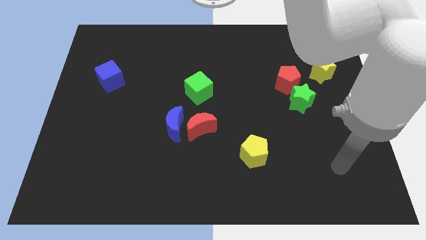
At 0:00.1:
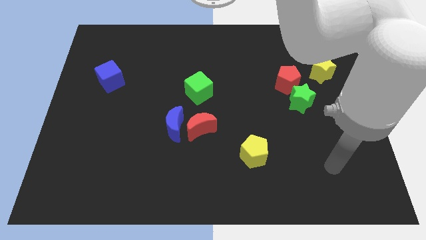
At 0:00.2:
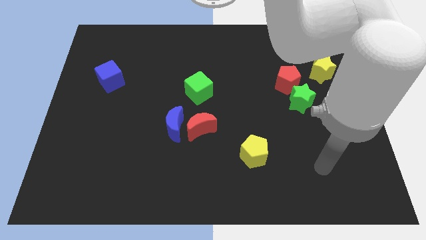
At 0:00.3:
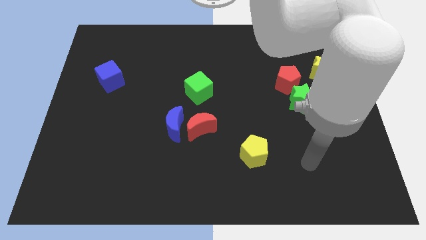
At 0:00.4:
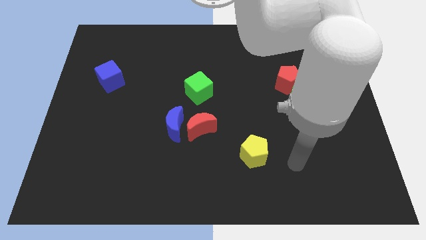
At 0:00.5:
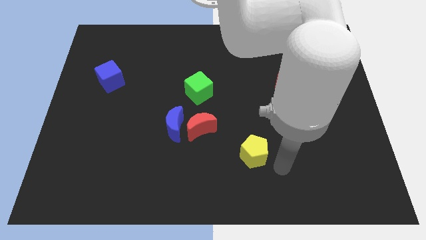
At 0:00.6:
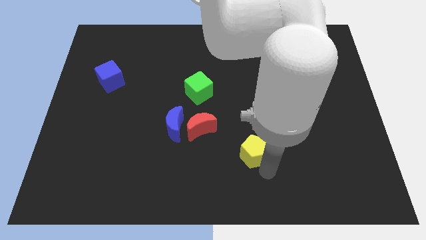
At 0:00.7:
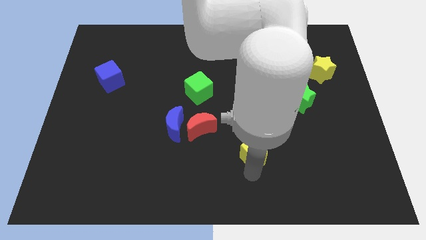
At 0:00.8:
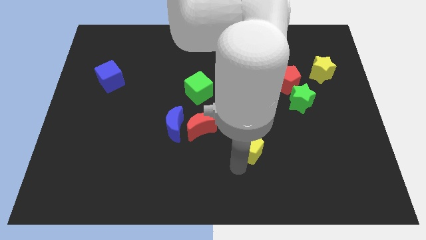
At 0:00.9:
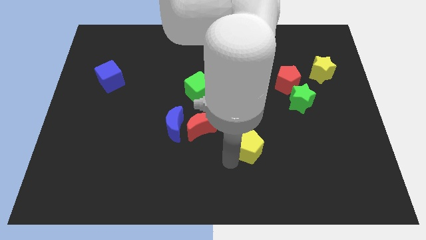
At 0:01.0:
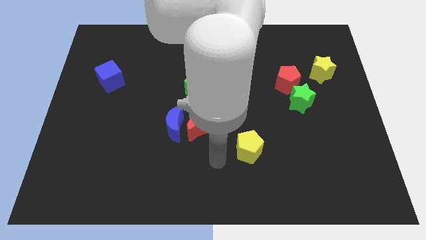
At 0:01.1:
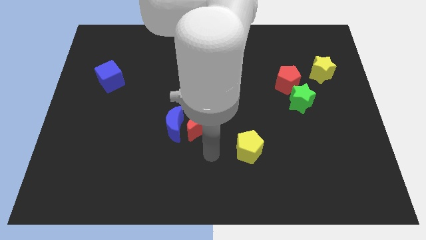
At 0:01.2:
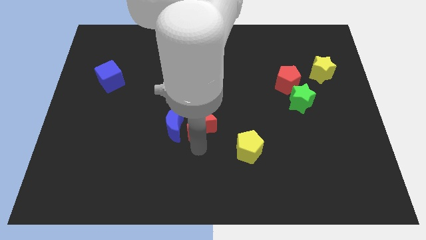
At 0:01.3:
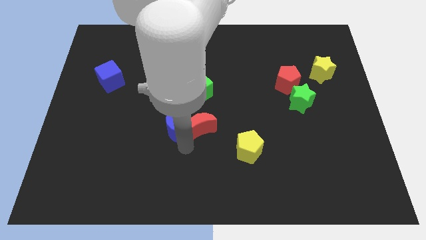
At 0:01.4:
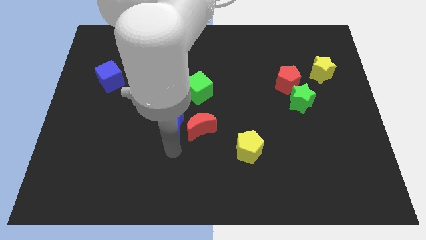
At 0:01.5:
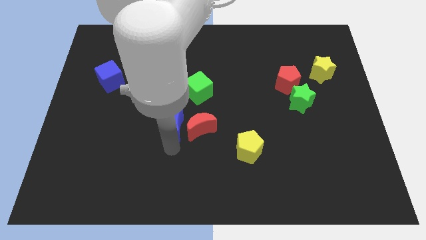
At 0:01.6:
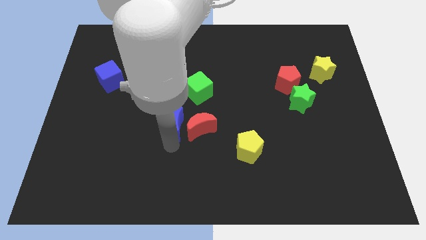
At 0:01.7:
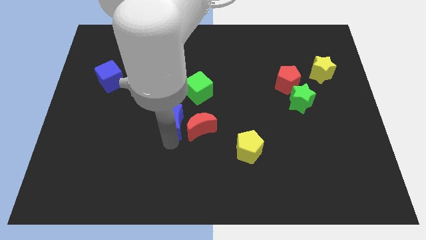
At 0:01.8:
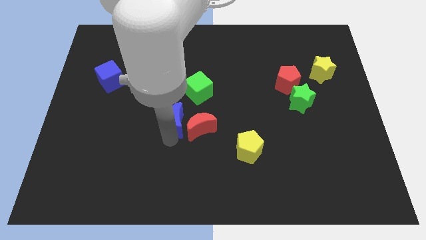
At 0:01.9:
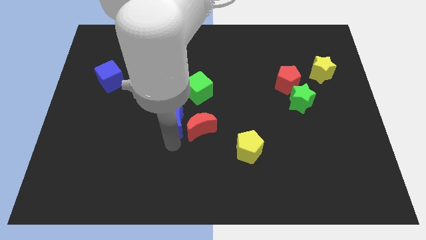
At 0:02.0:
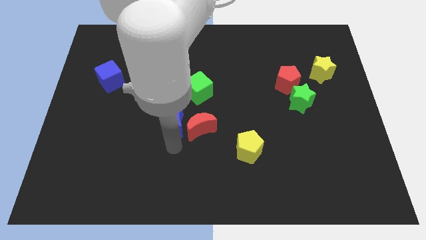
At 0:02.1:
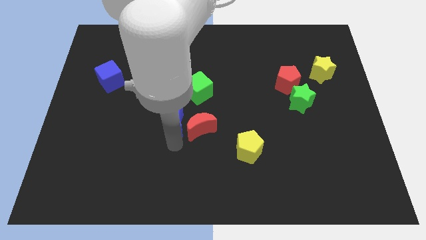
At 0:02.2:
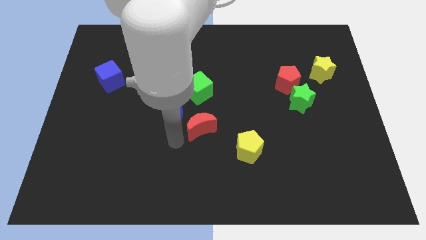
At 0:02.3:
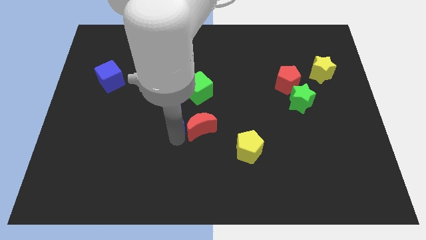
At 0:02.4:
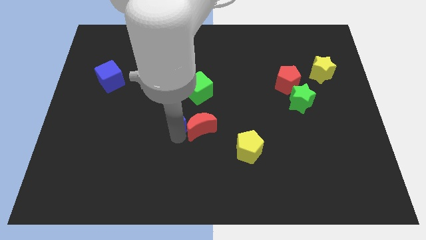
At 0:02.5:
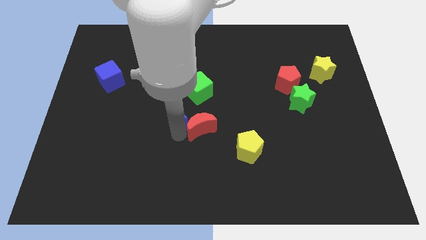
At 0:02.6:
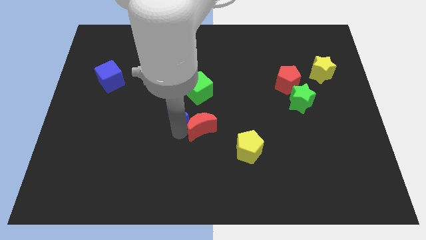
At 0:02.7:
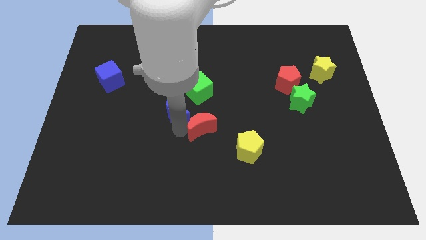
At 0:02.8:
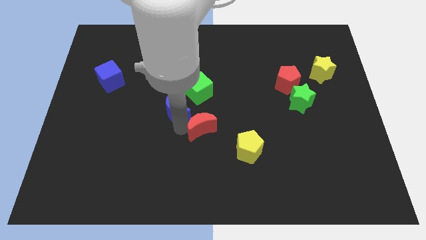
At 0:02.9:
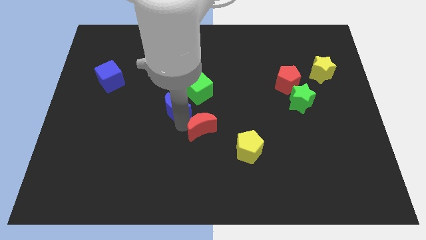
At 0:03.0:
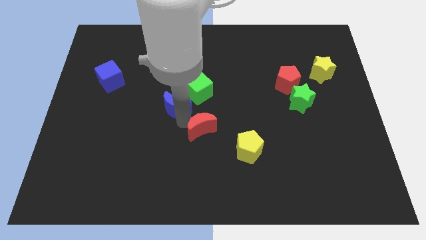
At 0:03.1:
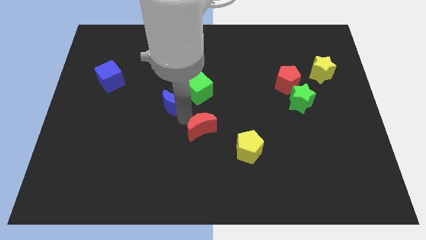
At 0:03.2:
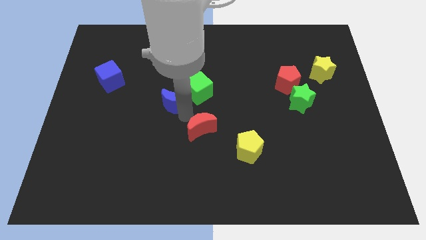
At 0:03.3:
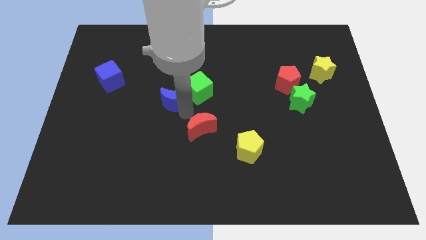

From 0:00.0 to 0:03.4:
slide the blue moon up somewhat

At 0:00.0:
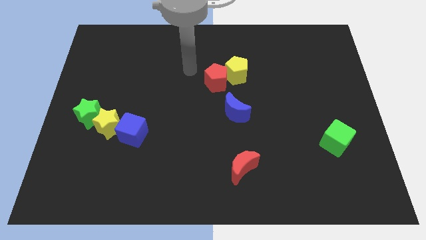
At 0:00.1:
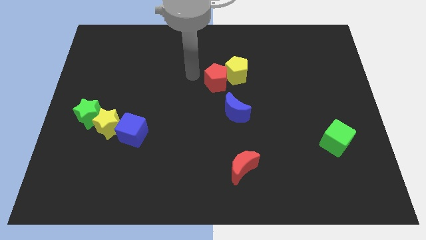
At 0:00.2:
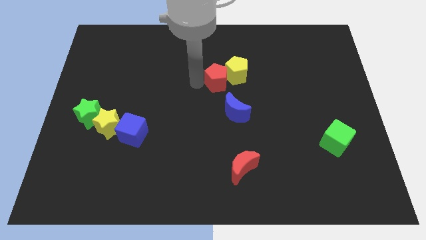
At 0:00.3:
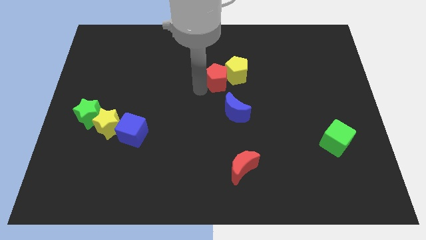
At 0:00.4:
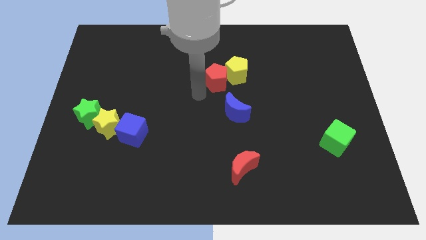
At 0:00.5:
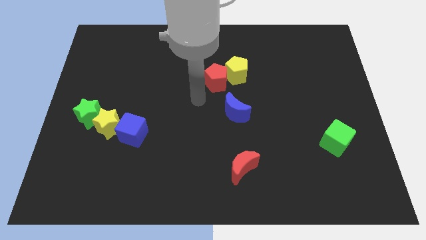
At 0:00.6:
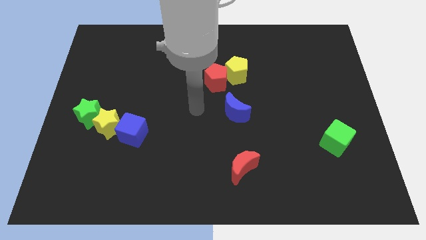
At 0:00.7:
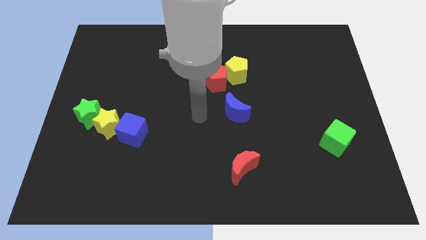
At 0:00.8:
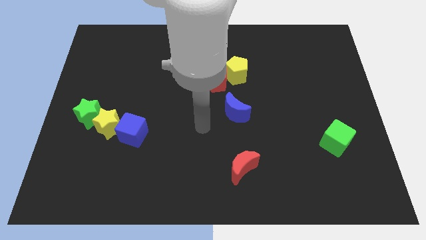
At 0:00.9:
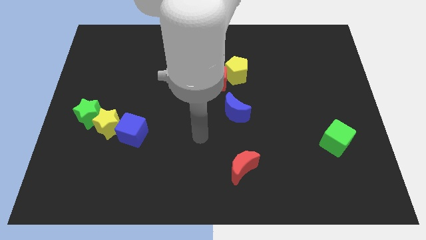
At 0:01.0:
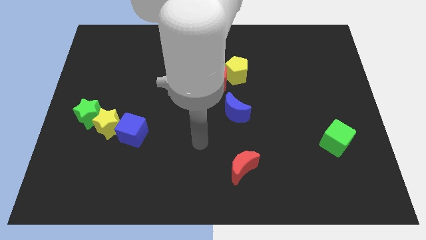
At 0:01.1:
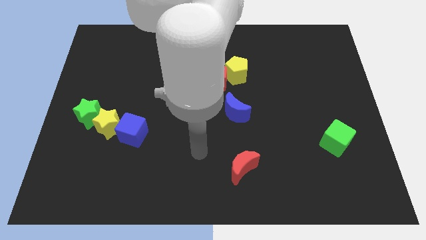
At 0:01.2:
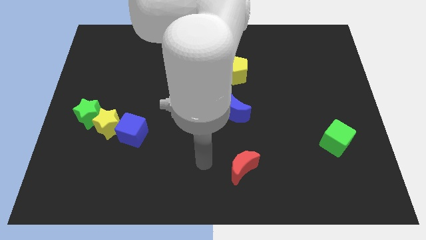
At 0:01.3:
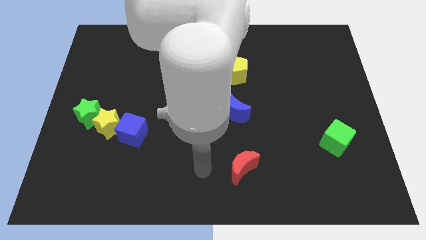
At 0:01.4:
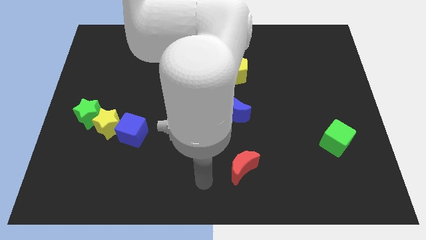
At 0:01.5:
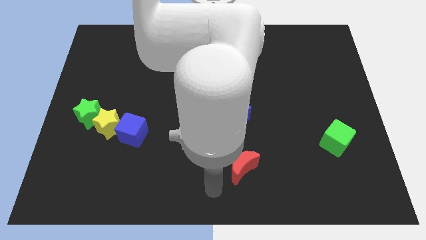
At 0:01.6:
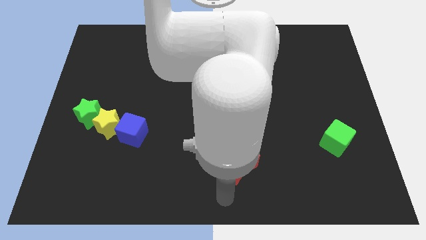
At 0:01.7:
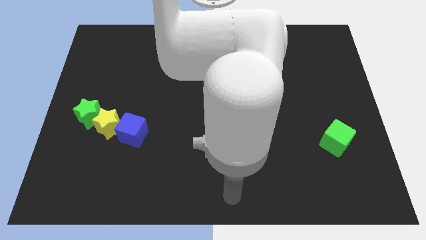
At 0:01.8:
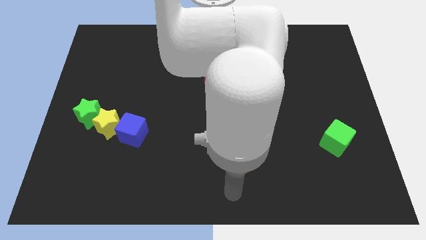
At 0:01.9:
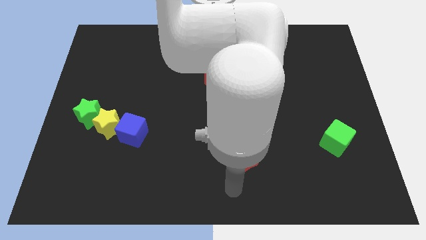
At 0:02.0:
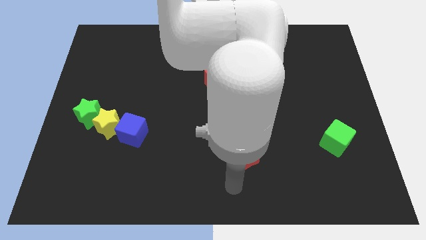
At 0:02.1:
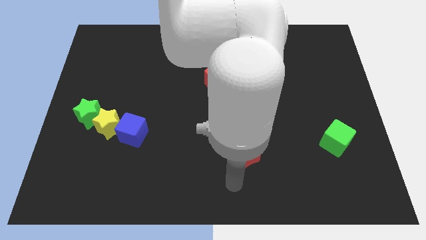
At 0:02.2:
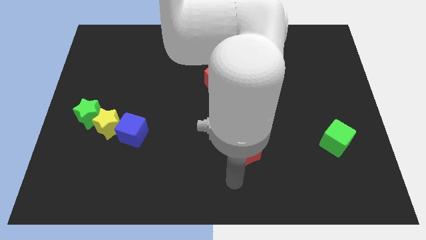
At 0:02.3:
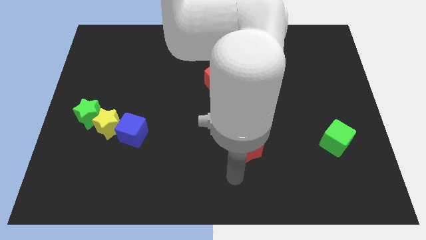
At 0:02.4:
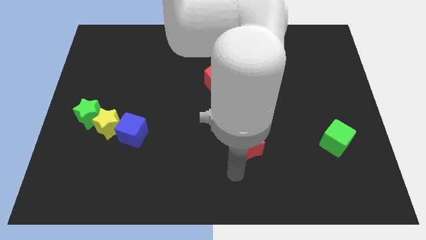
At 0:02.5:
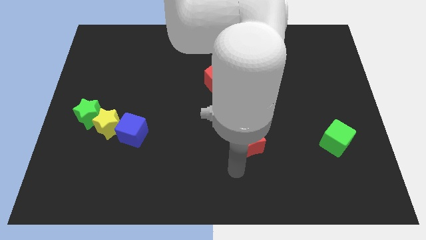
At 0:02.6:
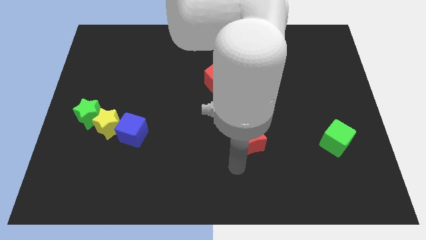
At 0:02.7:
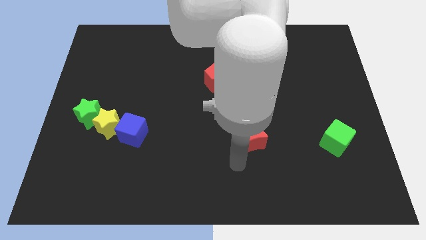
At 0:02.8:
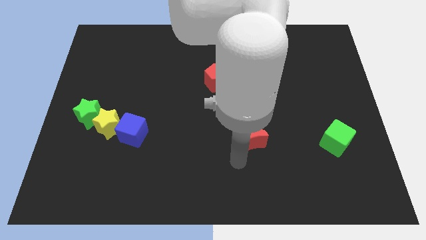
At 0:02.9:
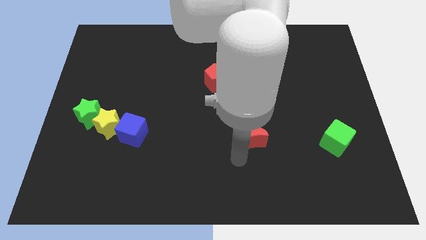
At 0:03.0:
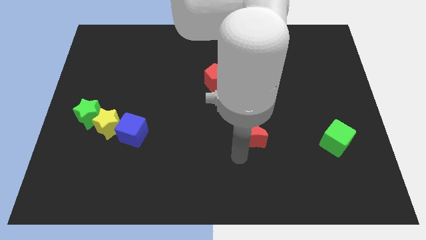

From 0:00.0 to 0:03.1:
push the red moon slightly upwards

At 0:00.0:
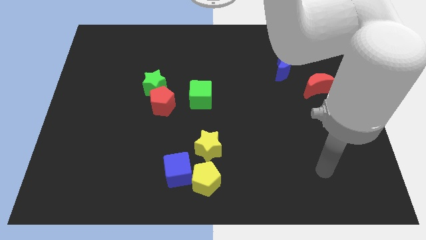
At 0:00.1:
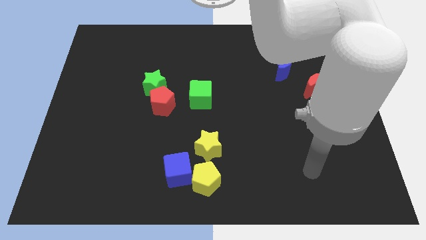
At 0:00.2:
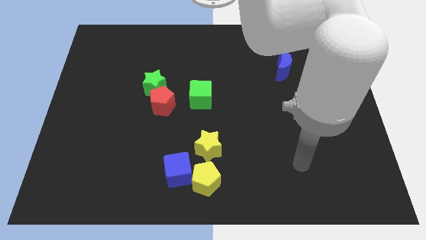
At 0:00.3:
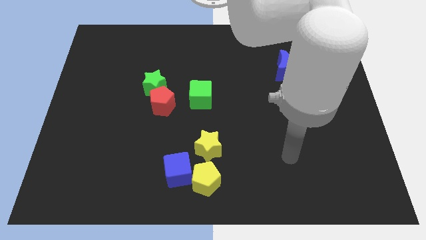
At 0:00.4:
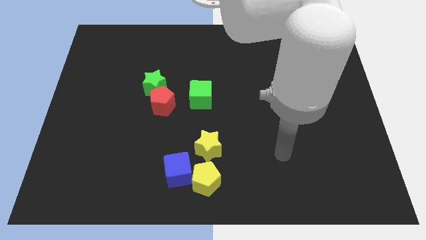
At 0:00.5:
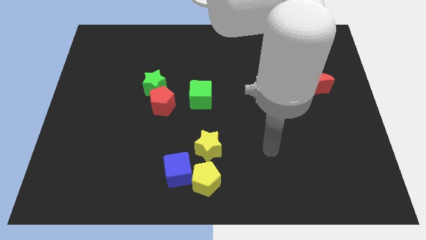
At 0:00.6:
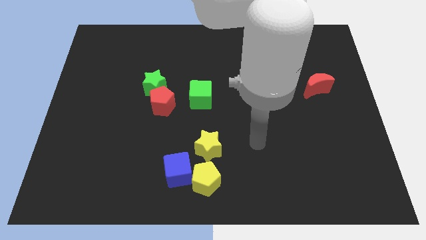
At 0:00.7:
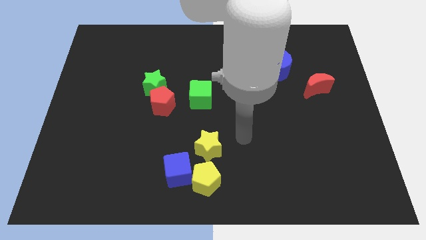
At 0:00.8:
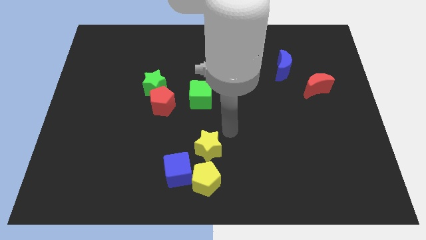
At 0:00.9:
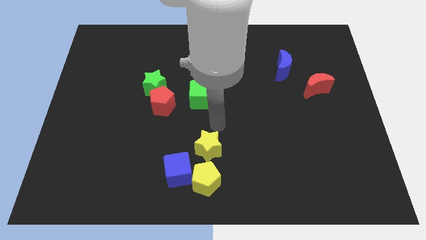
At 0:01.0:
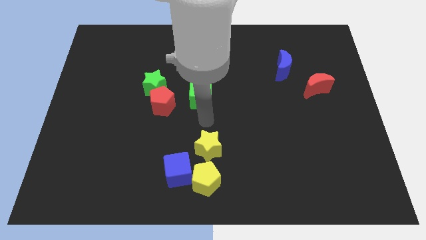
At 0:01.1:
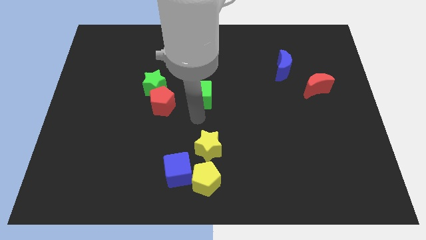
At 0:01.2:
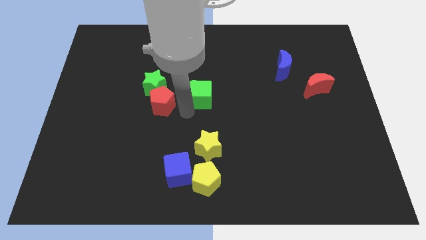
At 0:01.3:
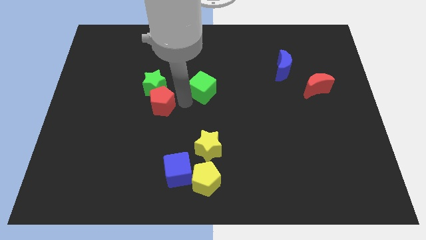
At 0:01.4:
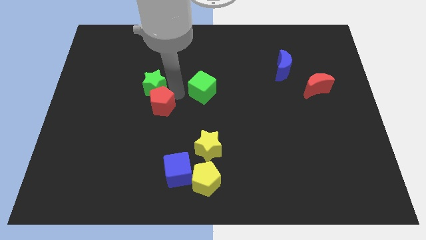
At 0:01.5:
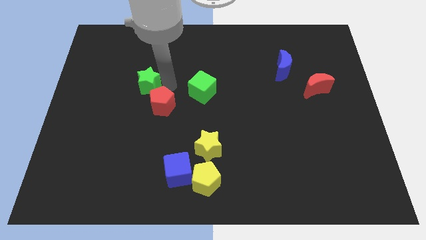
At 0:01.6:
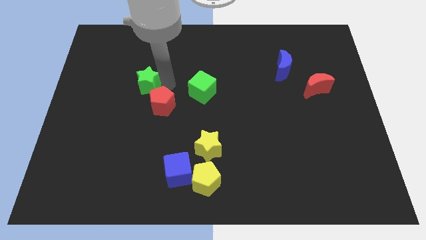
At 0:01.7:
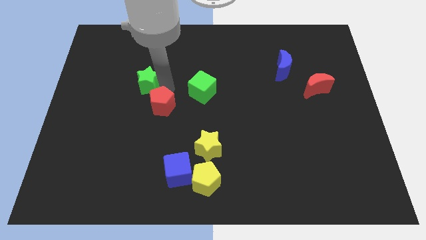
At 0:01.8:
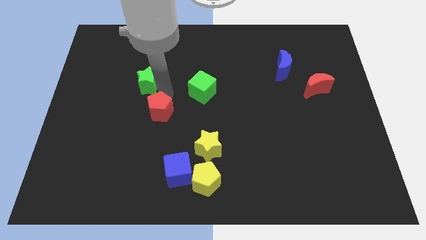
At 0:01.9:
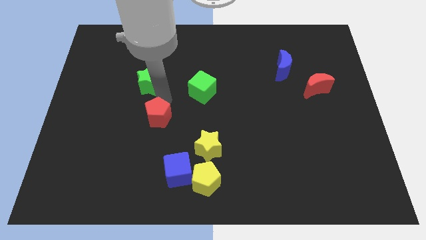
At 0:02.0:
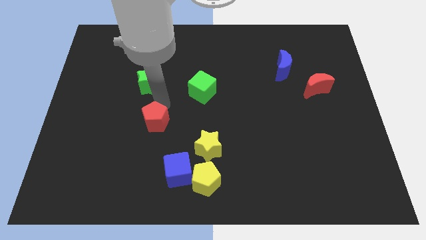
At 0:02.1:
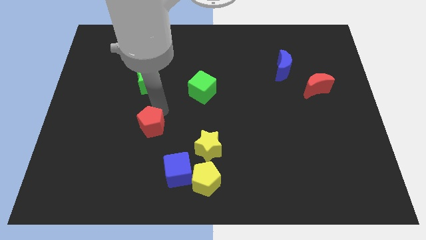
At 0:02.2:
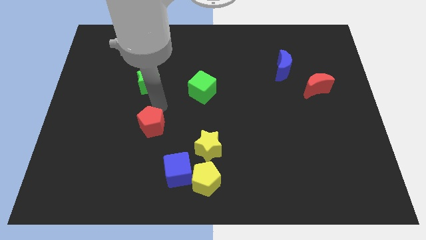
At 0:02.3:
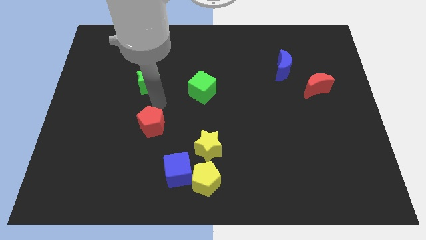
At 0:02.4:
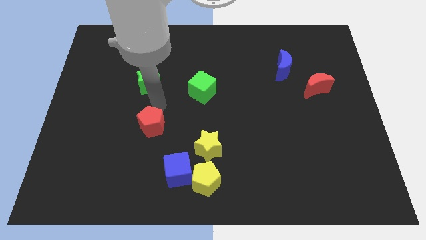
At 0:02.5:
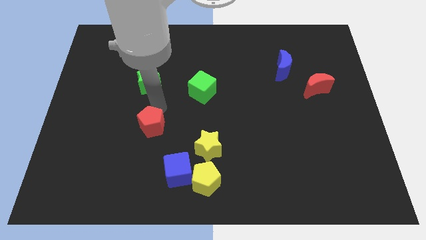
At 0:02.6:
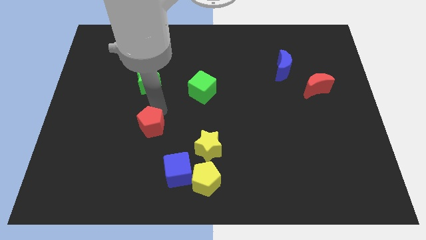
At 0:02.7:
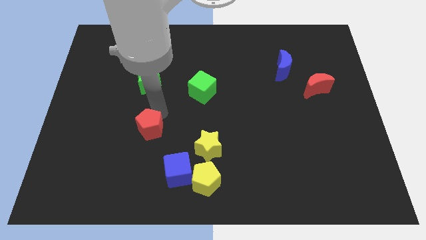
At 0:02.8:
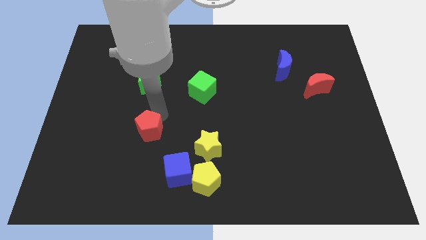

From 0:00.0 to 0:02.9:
slightly push the red pentagon downwards
